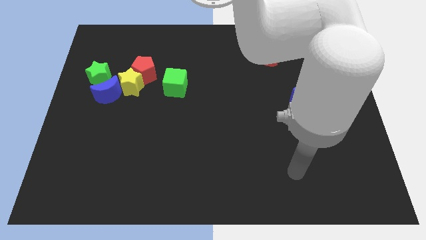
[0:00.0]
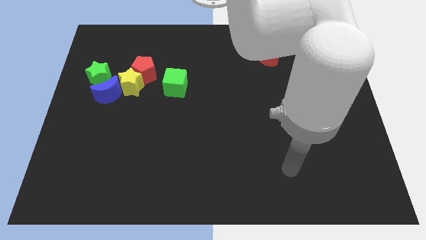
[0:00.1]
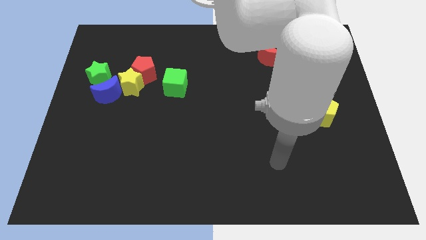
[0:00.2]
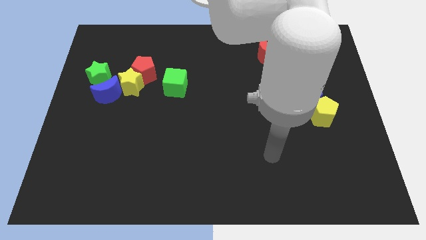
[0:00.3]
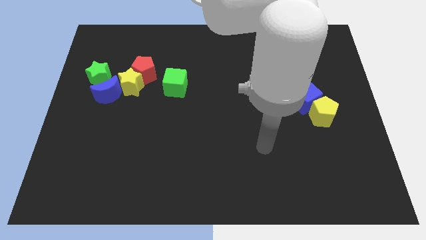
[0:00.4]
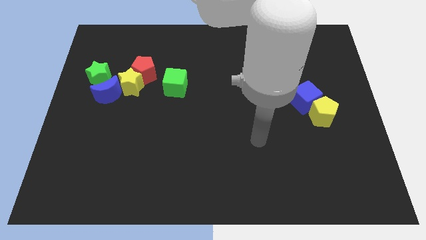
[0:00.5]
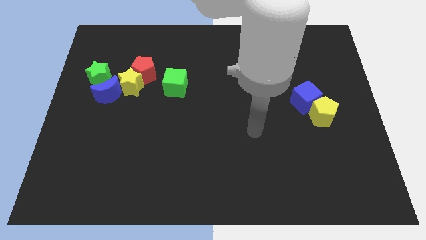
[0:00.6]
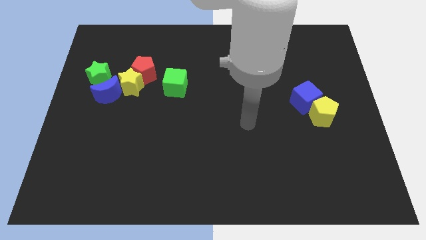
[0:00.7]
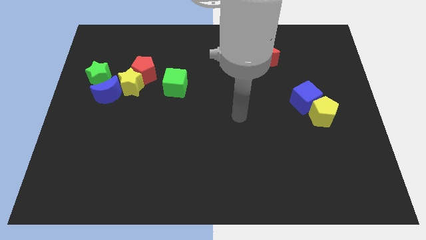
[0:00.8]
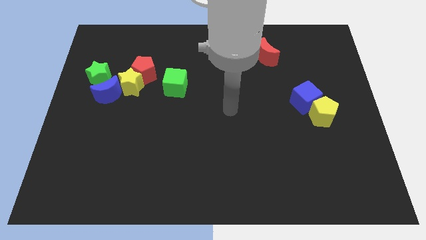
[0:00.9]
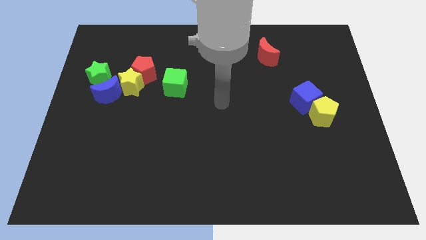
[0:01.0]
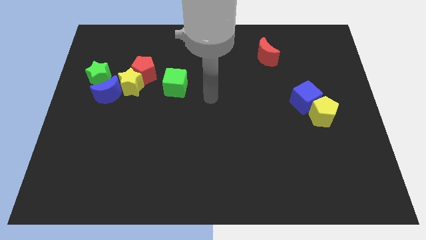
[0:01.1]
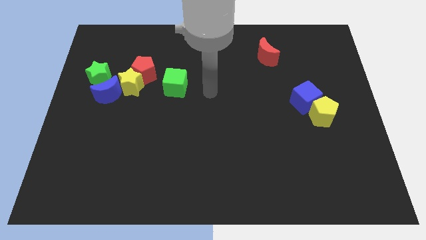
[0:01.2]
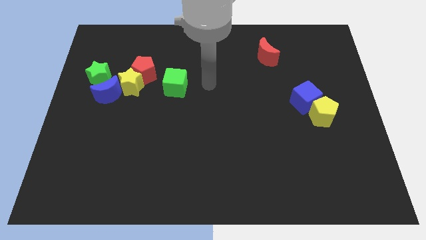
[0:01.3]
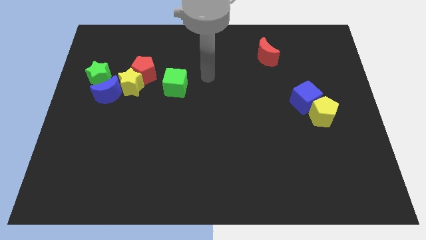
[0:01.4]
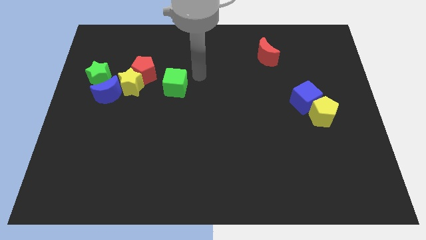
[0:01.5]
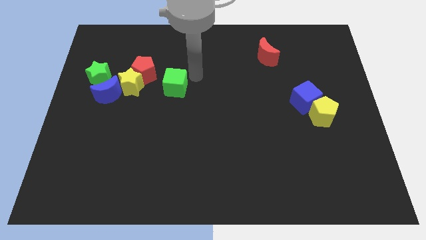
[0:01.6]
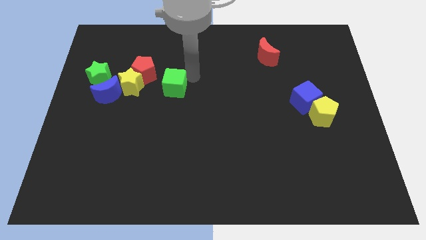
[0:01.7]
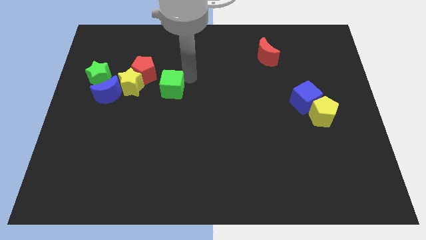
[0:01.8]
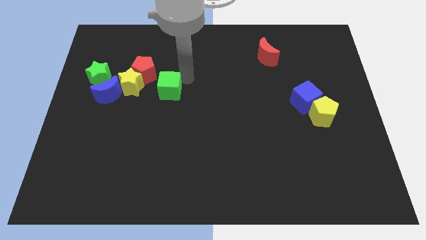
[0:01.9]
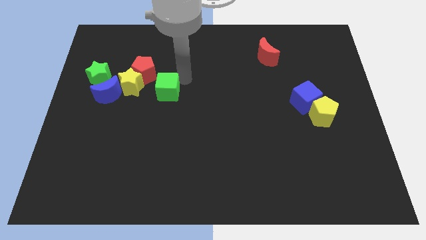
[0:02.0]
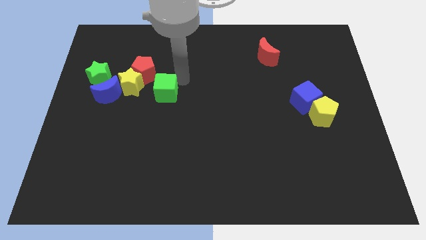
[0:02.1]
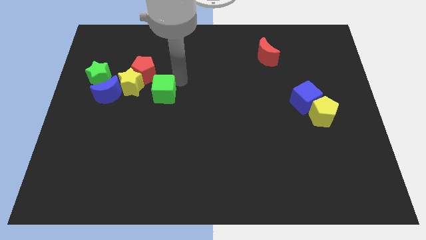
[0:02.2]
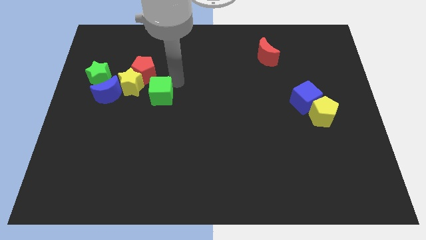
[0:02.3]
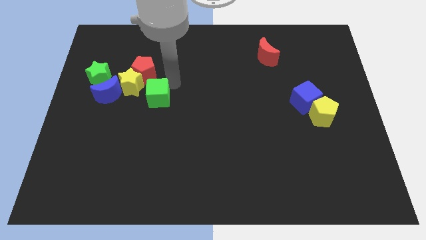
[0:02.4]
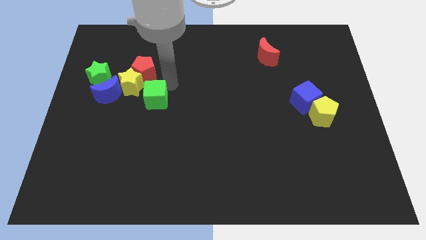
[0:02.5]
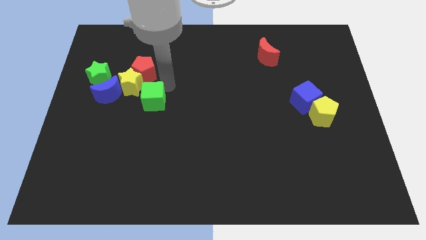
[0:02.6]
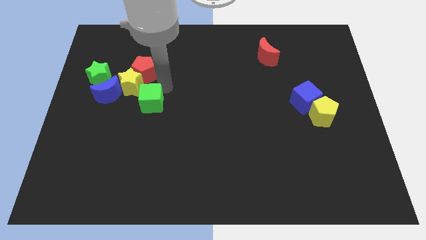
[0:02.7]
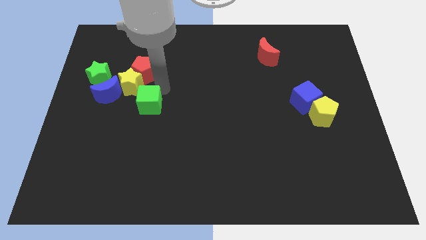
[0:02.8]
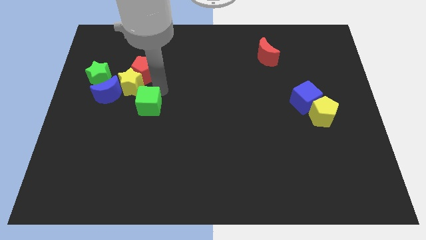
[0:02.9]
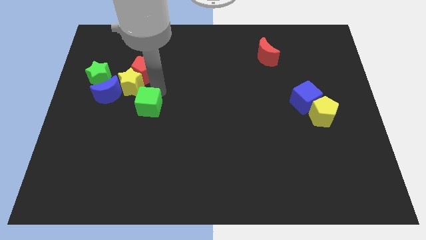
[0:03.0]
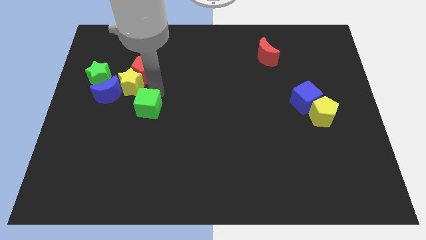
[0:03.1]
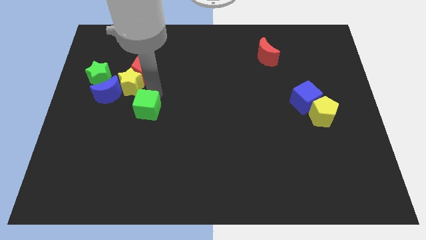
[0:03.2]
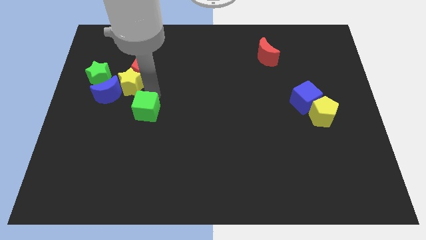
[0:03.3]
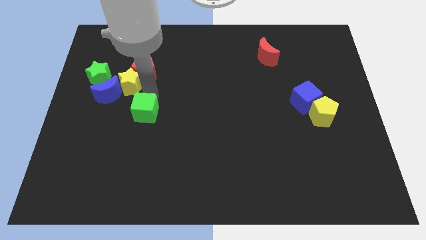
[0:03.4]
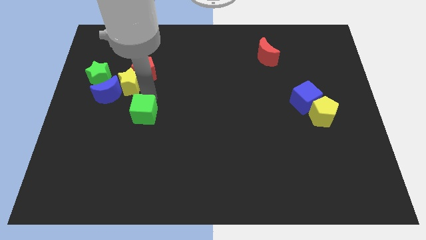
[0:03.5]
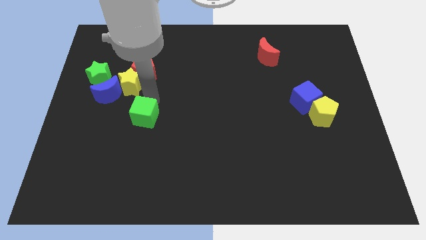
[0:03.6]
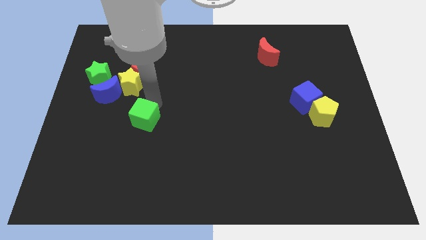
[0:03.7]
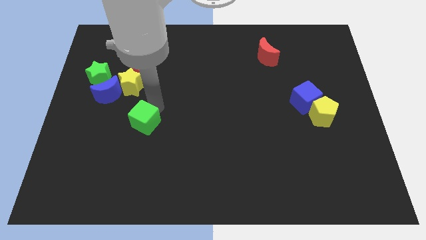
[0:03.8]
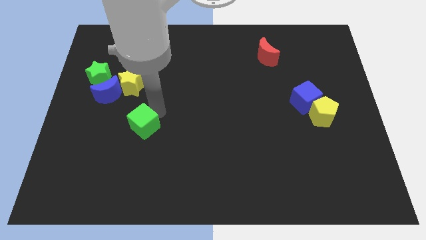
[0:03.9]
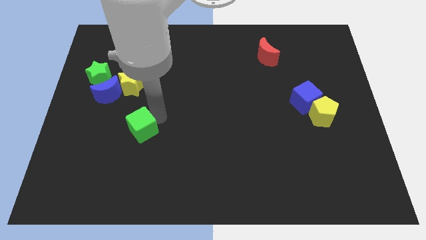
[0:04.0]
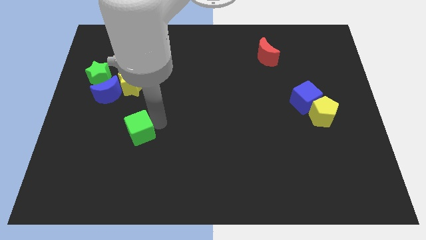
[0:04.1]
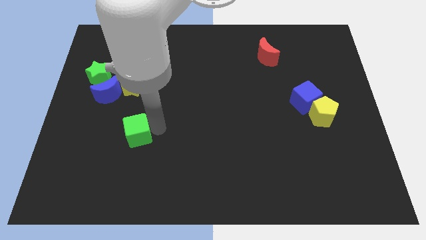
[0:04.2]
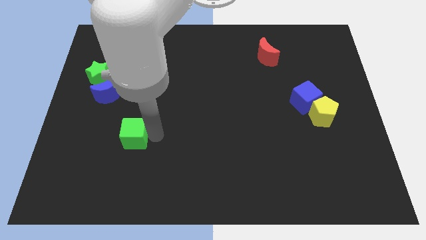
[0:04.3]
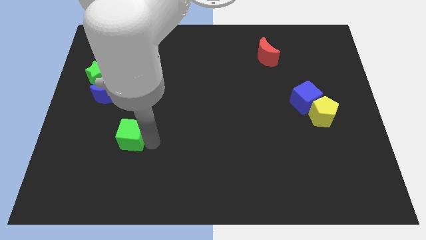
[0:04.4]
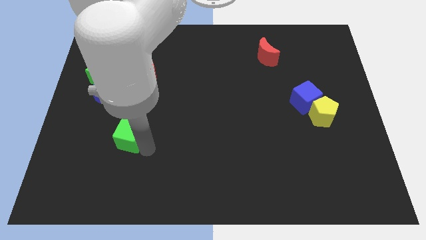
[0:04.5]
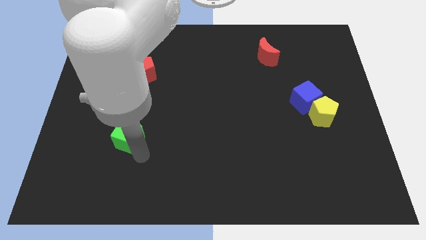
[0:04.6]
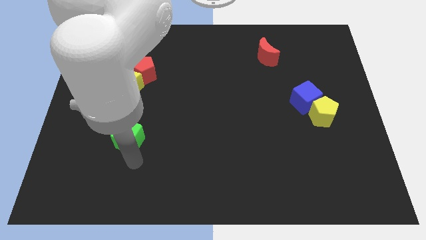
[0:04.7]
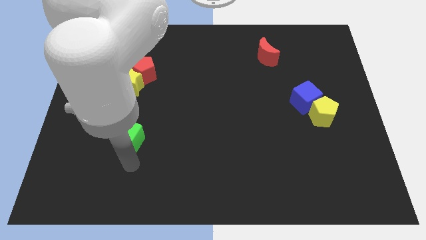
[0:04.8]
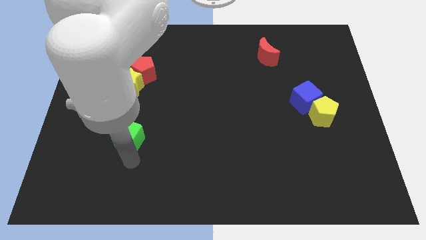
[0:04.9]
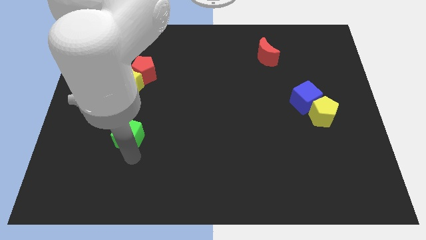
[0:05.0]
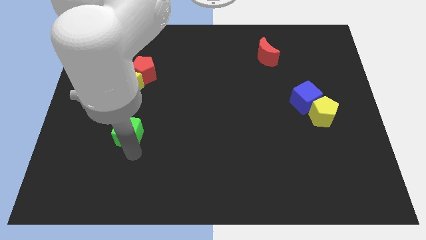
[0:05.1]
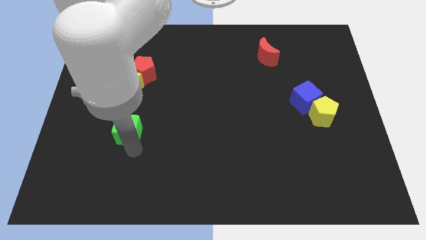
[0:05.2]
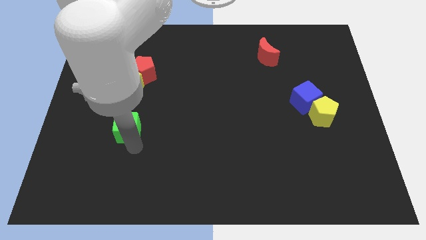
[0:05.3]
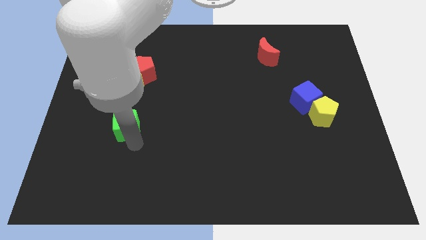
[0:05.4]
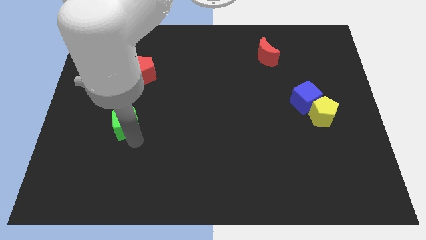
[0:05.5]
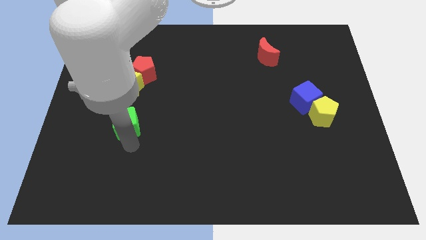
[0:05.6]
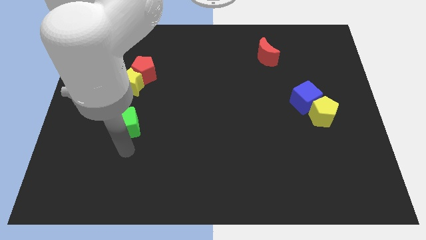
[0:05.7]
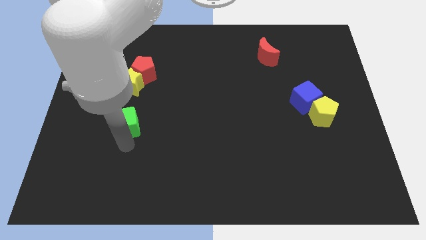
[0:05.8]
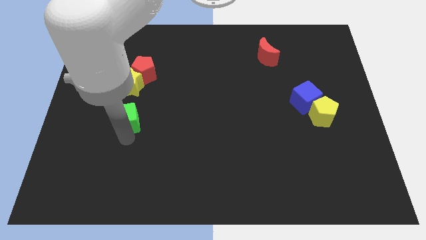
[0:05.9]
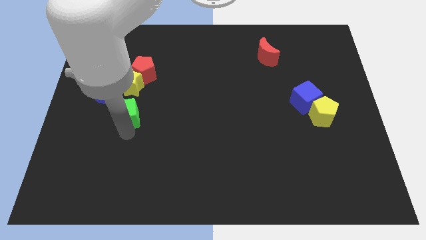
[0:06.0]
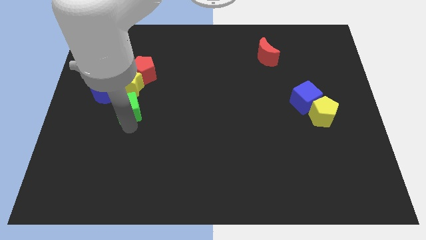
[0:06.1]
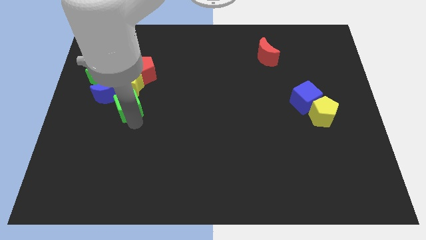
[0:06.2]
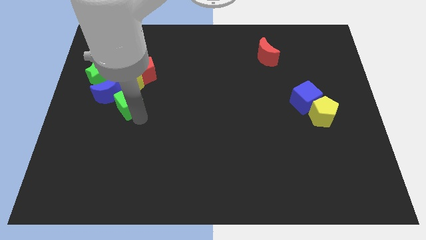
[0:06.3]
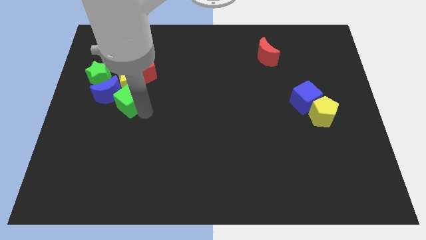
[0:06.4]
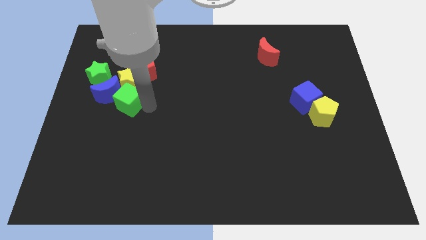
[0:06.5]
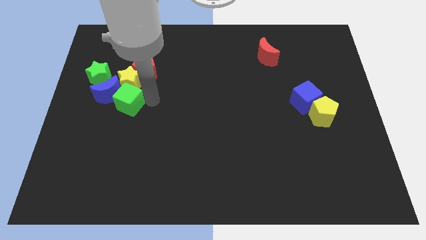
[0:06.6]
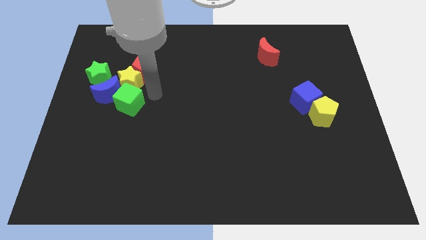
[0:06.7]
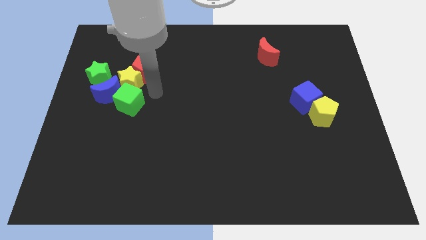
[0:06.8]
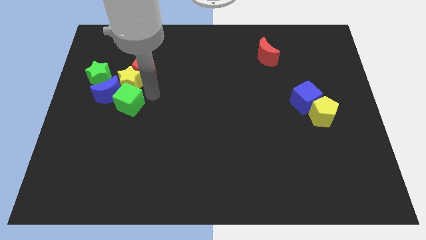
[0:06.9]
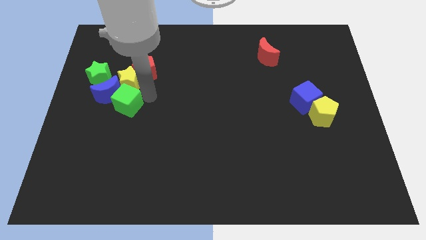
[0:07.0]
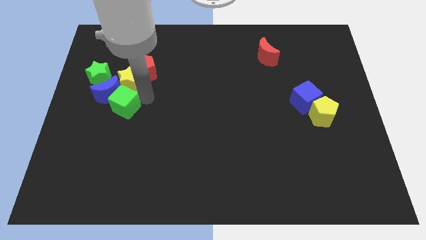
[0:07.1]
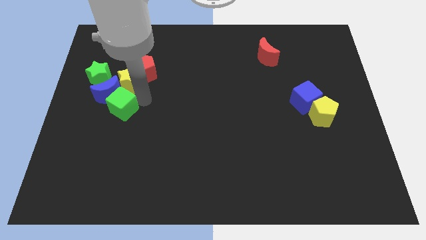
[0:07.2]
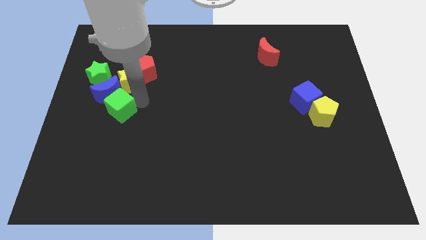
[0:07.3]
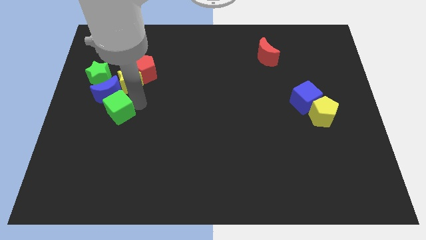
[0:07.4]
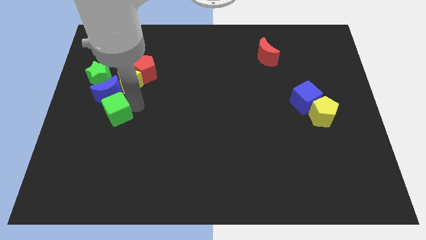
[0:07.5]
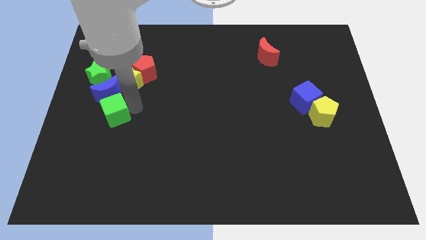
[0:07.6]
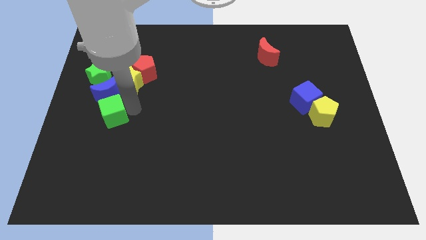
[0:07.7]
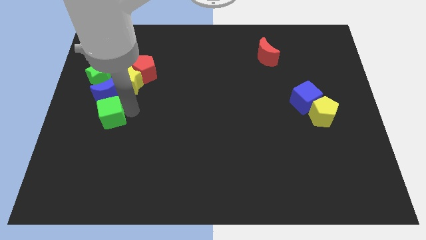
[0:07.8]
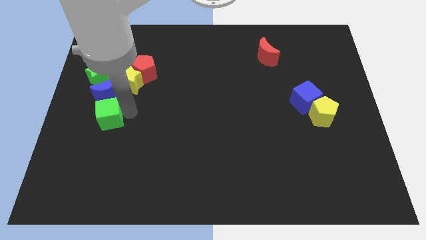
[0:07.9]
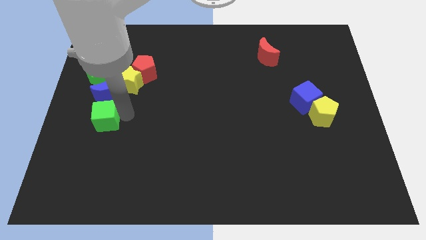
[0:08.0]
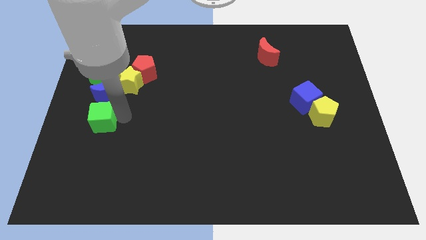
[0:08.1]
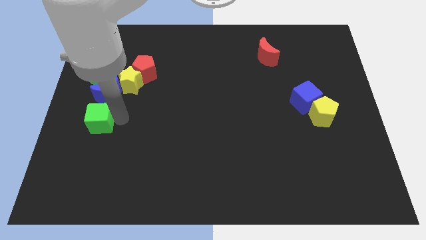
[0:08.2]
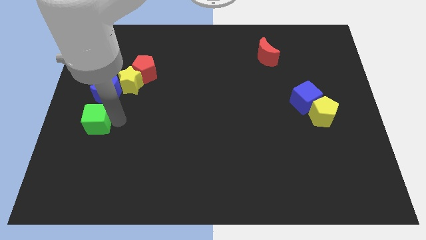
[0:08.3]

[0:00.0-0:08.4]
move the green cube to the left side
